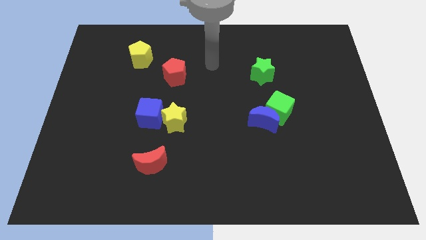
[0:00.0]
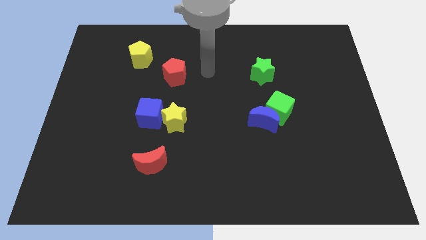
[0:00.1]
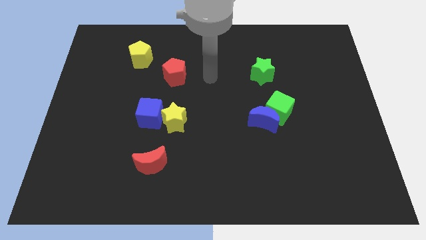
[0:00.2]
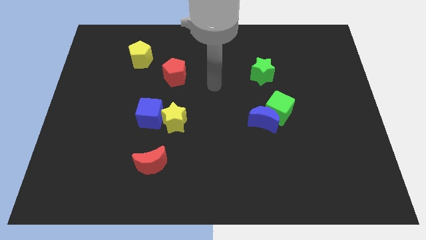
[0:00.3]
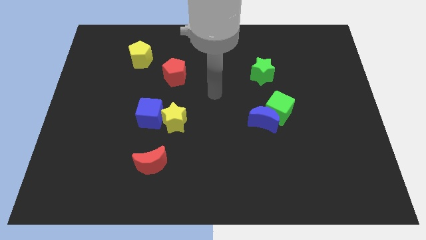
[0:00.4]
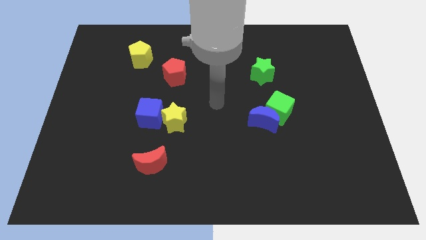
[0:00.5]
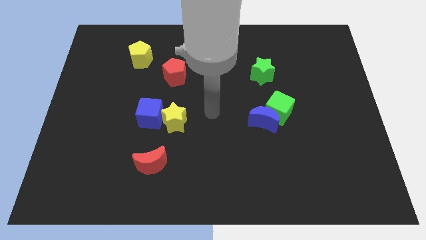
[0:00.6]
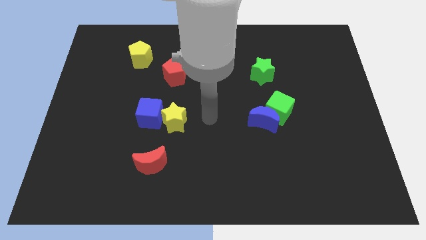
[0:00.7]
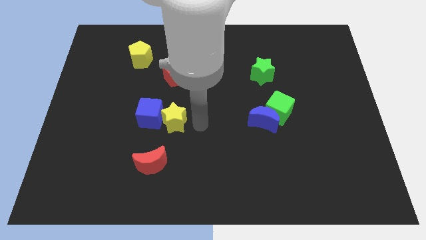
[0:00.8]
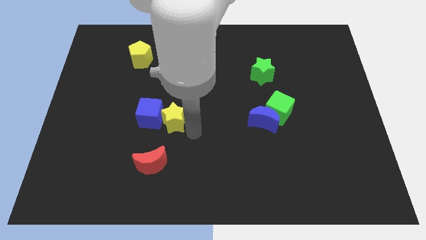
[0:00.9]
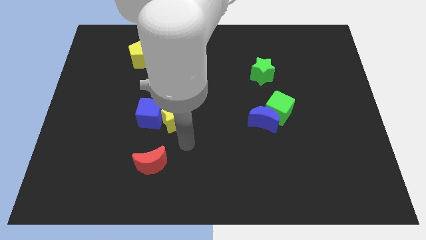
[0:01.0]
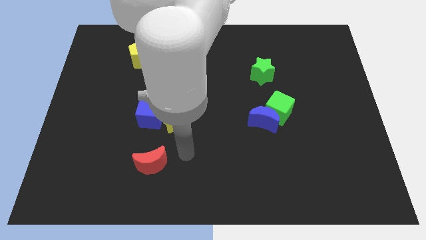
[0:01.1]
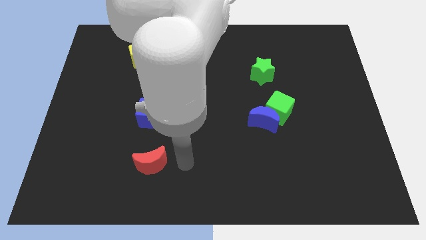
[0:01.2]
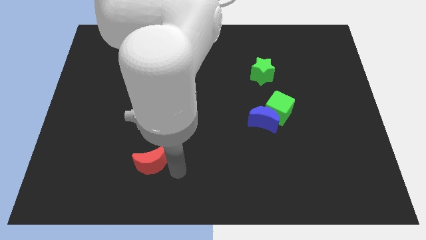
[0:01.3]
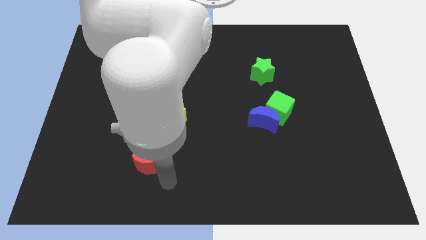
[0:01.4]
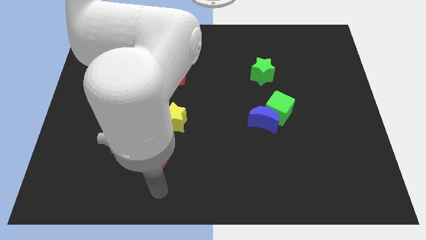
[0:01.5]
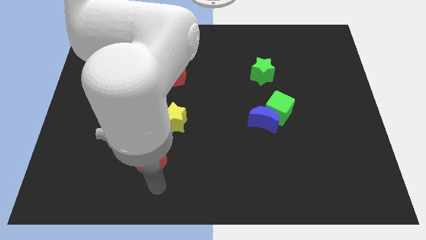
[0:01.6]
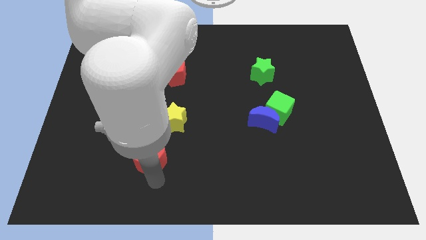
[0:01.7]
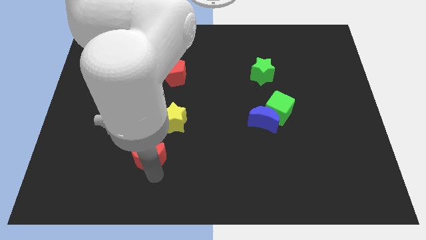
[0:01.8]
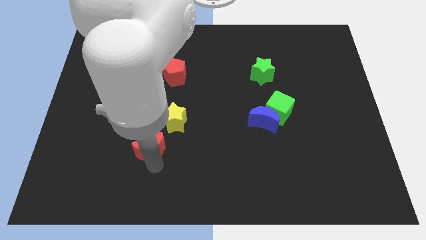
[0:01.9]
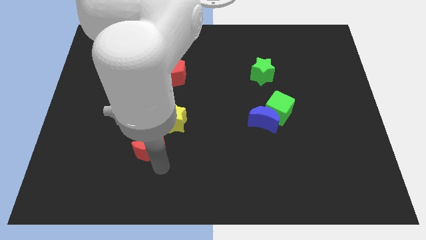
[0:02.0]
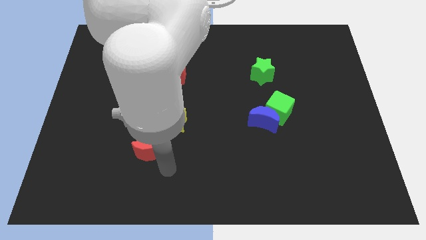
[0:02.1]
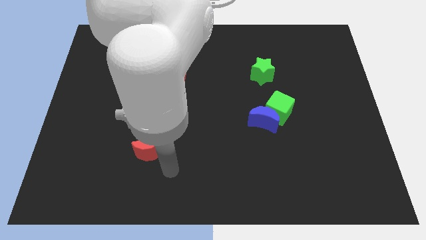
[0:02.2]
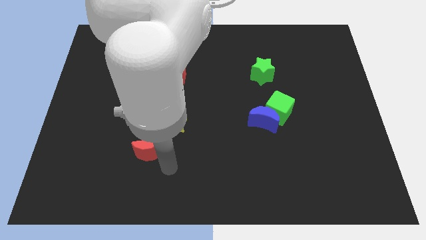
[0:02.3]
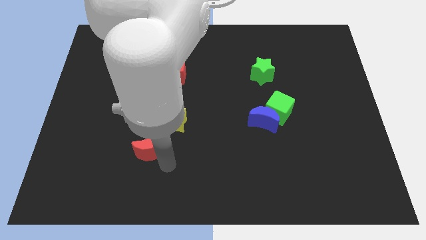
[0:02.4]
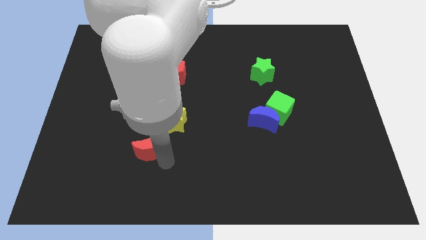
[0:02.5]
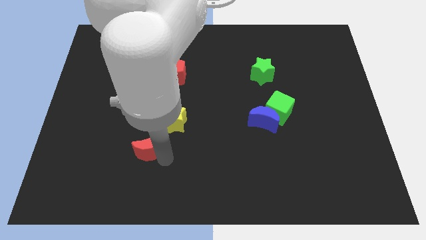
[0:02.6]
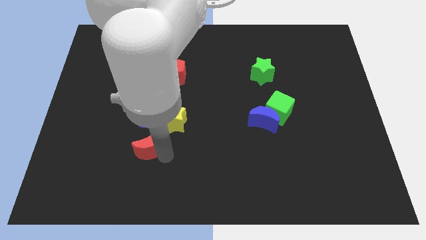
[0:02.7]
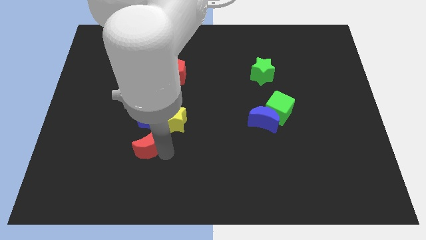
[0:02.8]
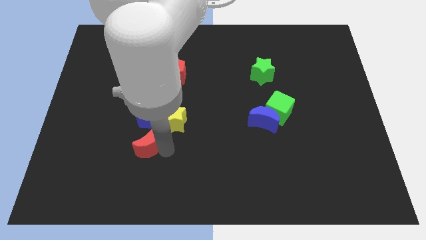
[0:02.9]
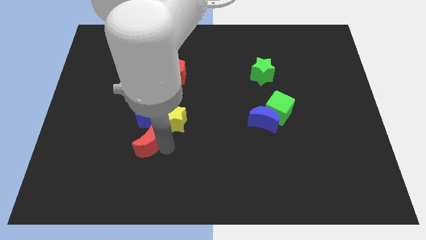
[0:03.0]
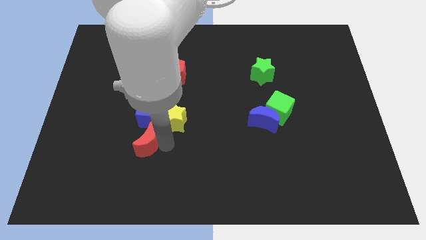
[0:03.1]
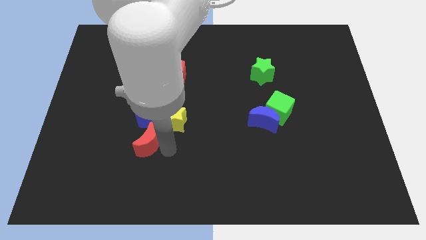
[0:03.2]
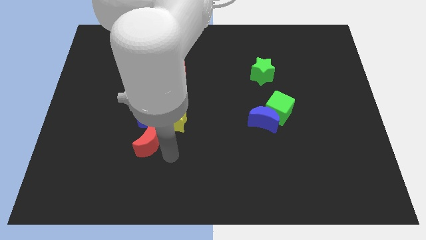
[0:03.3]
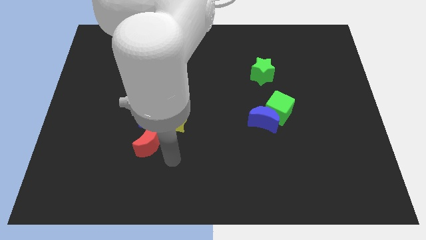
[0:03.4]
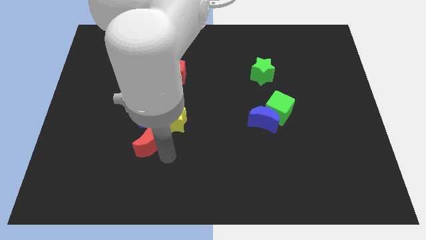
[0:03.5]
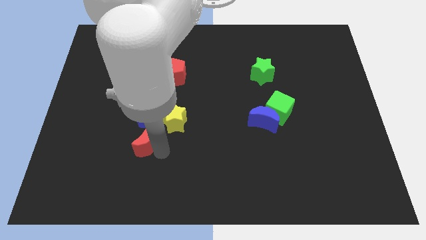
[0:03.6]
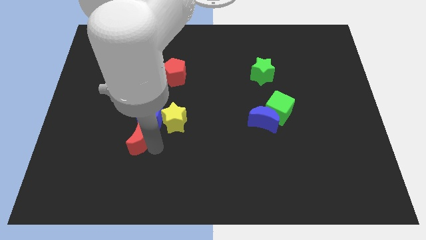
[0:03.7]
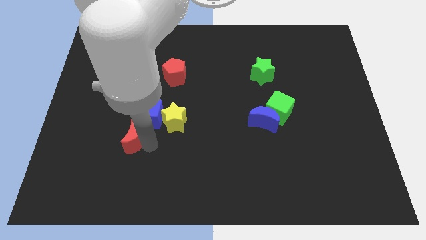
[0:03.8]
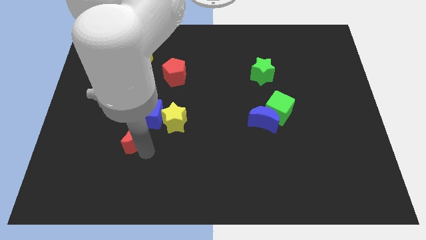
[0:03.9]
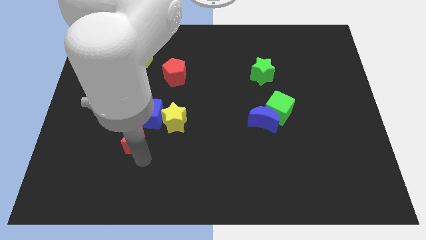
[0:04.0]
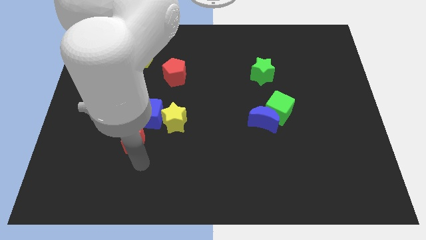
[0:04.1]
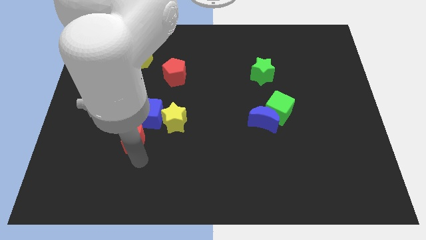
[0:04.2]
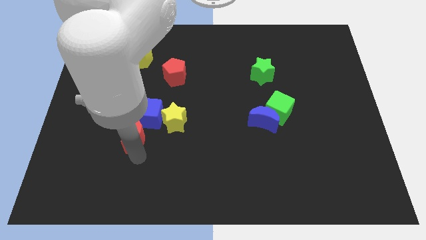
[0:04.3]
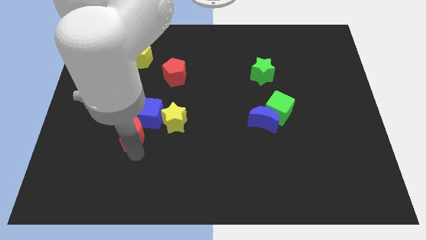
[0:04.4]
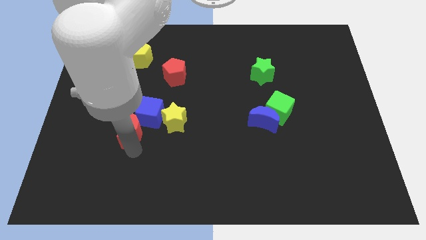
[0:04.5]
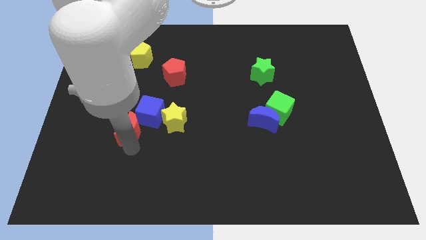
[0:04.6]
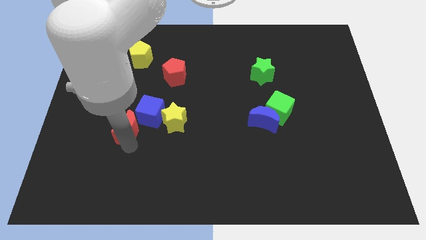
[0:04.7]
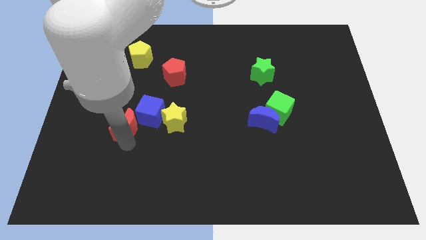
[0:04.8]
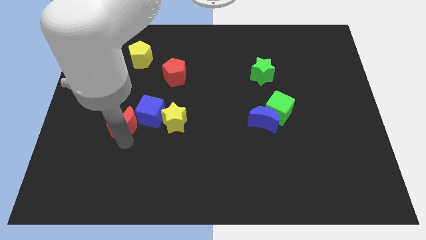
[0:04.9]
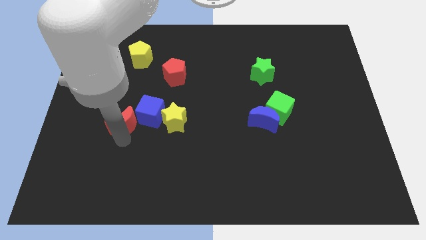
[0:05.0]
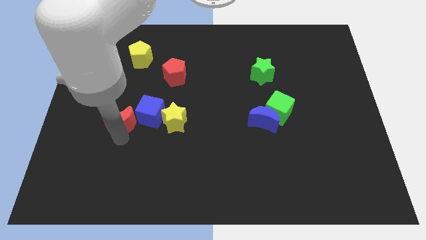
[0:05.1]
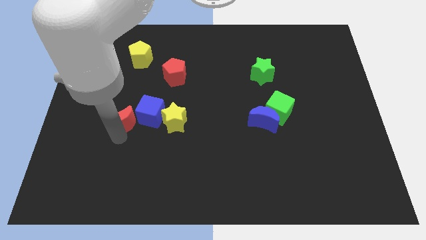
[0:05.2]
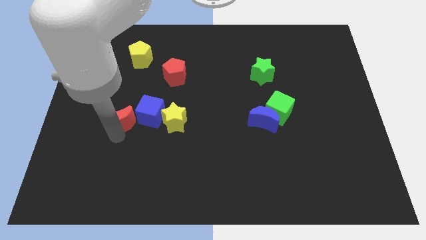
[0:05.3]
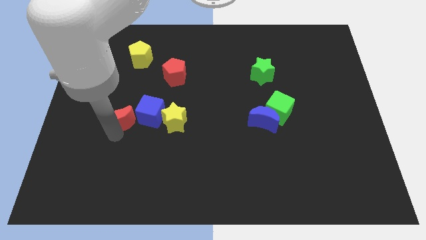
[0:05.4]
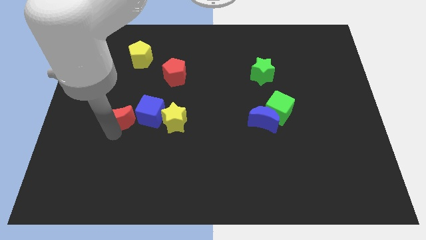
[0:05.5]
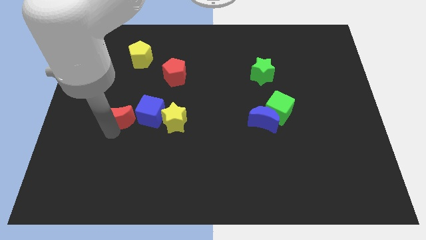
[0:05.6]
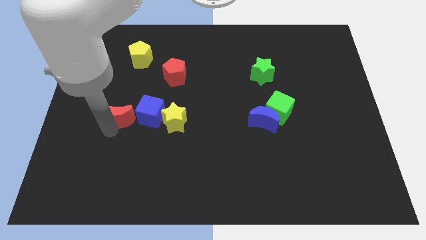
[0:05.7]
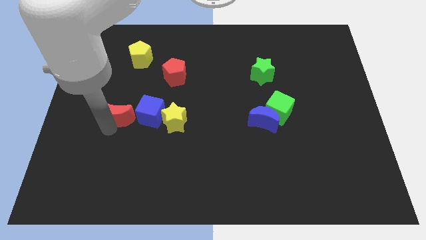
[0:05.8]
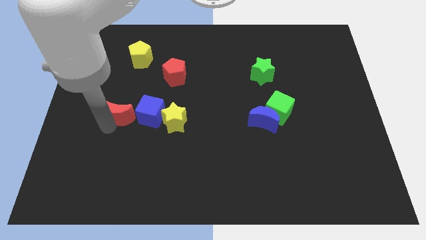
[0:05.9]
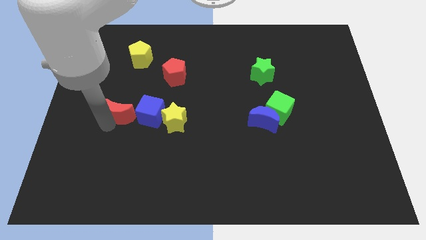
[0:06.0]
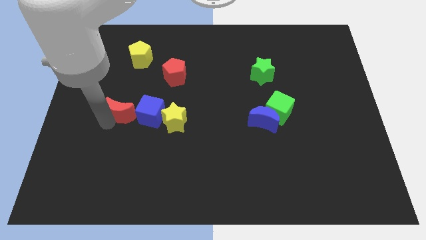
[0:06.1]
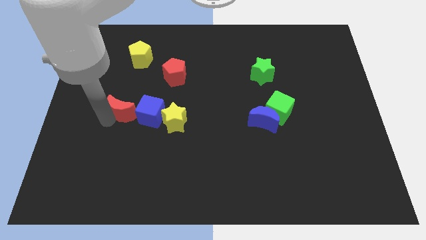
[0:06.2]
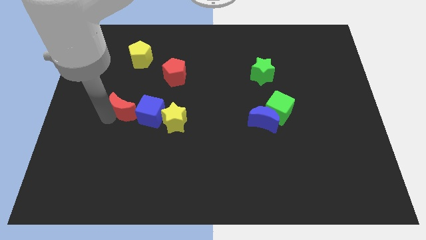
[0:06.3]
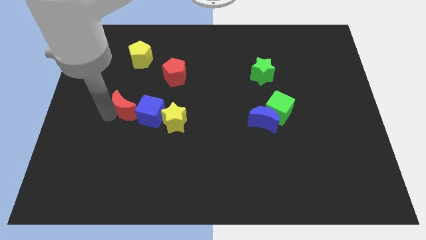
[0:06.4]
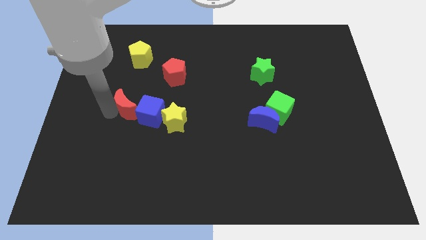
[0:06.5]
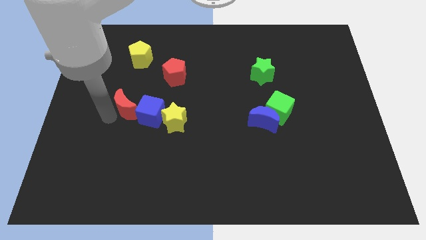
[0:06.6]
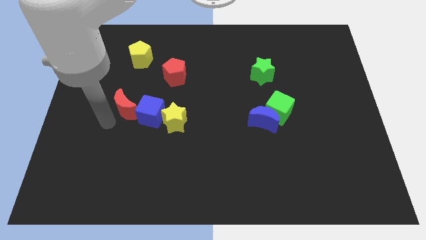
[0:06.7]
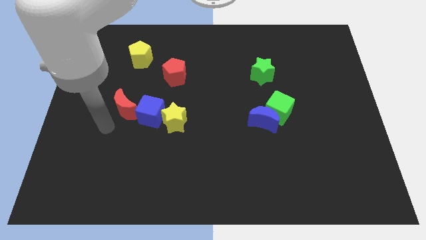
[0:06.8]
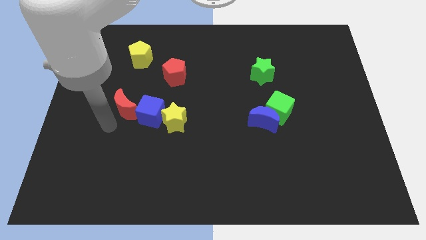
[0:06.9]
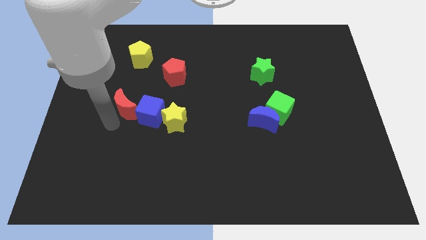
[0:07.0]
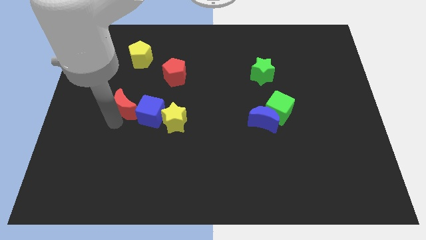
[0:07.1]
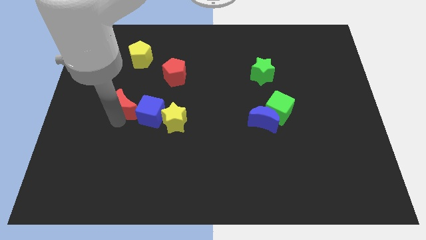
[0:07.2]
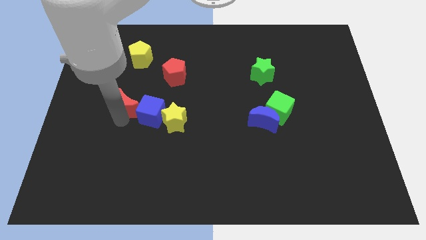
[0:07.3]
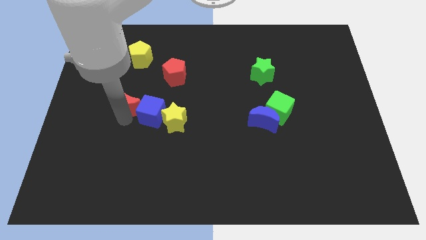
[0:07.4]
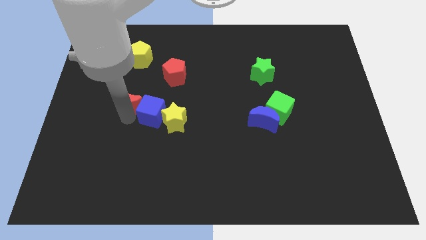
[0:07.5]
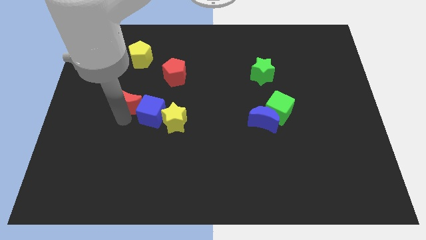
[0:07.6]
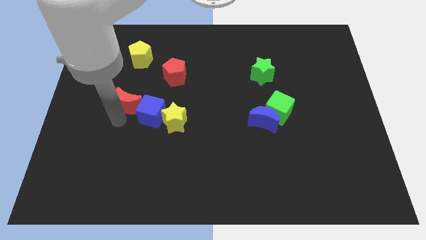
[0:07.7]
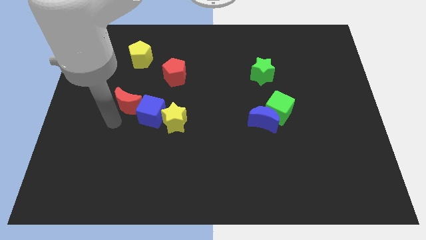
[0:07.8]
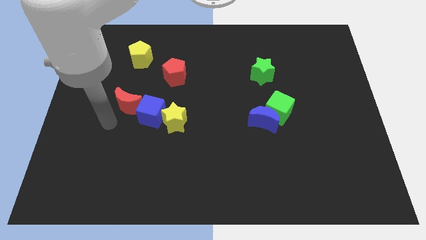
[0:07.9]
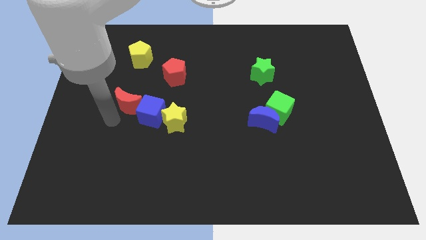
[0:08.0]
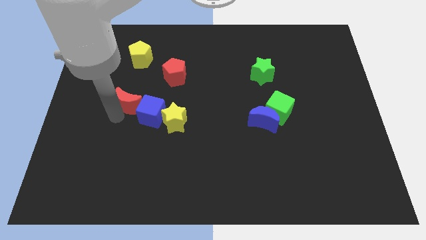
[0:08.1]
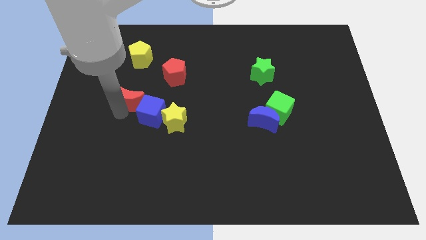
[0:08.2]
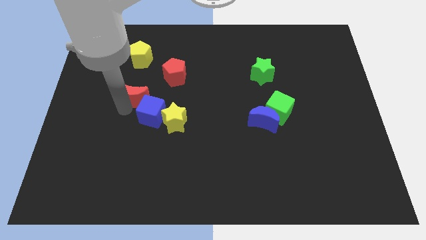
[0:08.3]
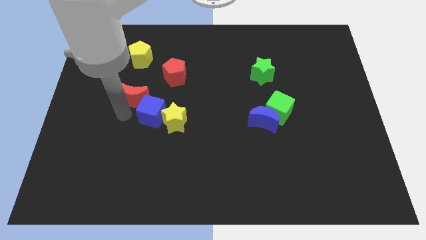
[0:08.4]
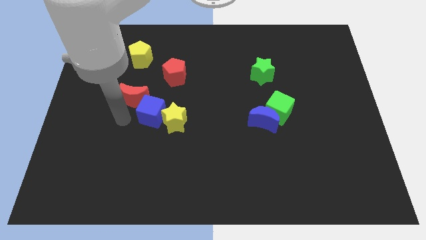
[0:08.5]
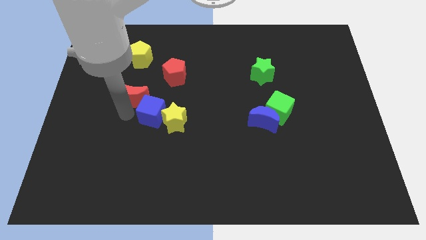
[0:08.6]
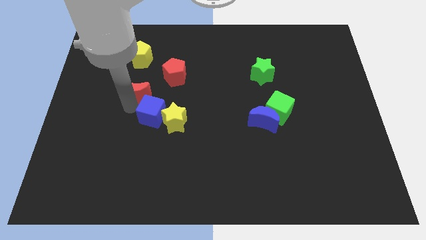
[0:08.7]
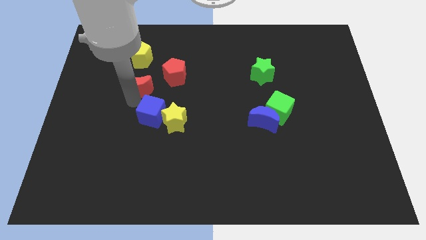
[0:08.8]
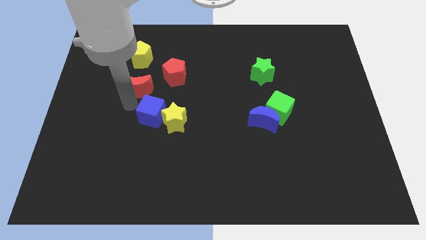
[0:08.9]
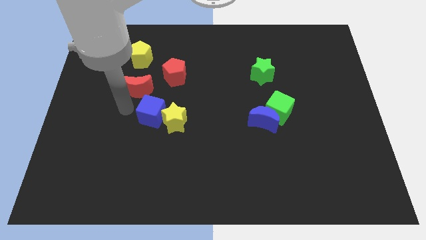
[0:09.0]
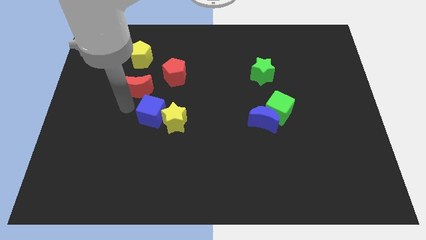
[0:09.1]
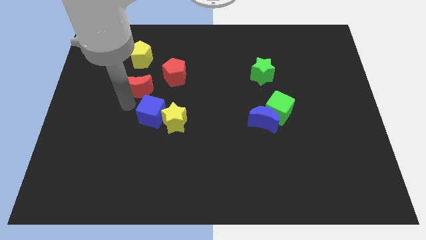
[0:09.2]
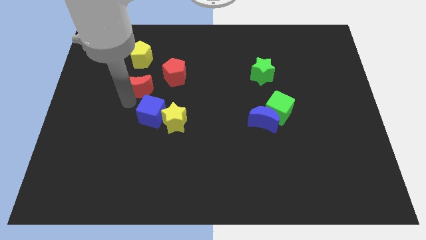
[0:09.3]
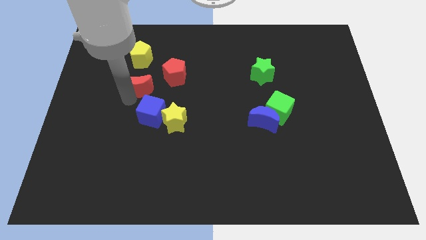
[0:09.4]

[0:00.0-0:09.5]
push the red moon up
